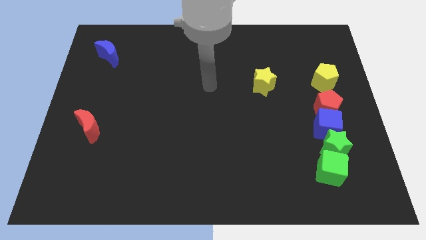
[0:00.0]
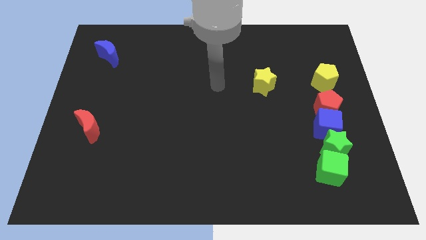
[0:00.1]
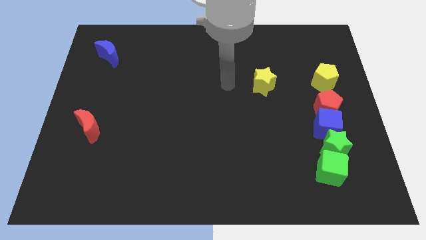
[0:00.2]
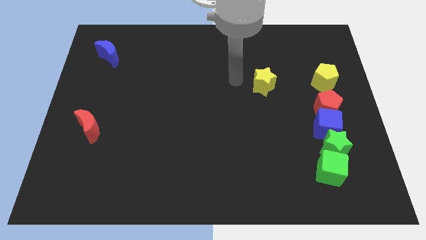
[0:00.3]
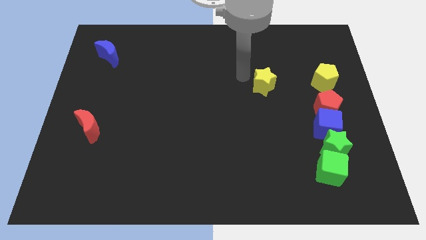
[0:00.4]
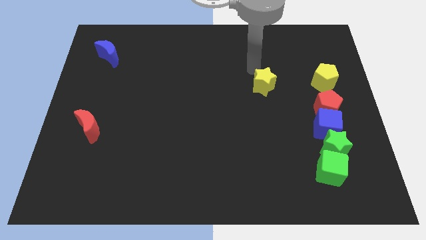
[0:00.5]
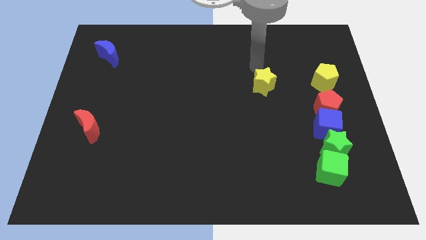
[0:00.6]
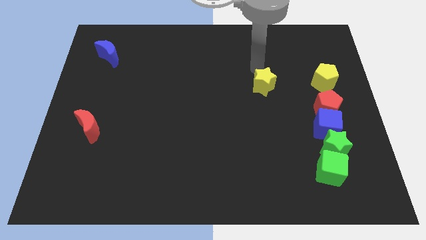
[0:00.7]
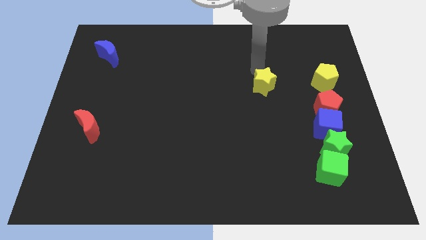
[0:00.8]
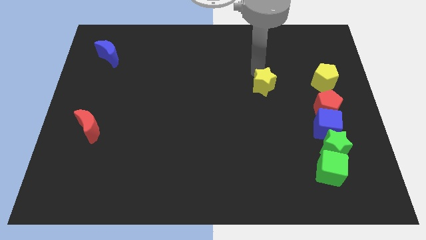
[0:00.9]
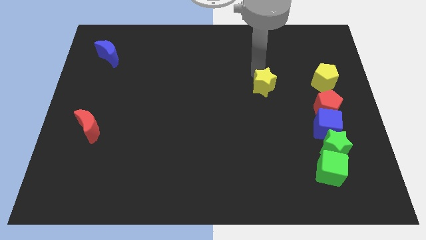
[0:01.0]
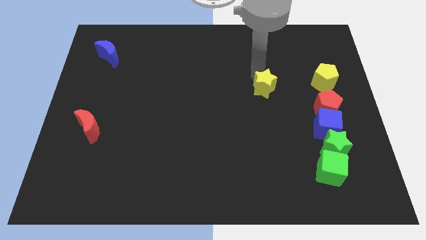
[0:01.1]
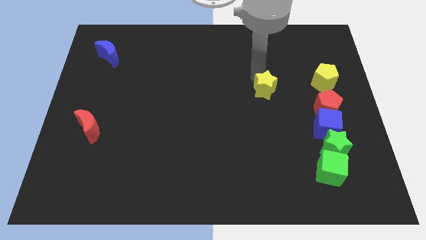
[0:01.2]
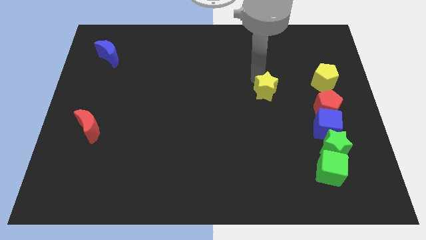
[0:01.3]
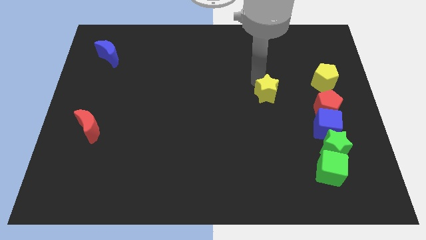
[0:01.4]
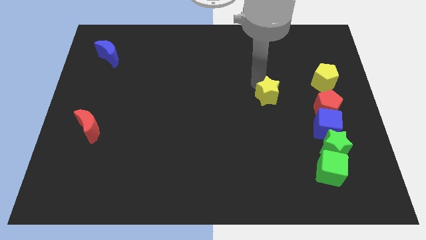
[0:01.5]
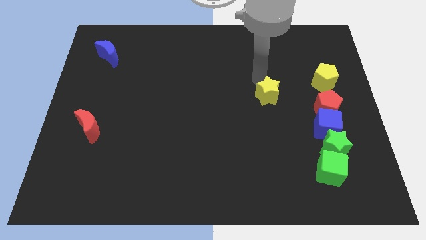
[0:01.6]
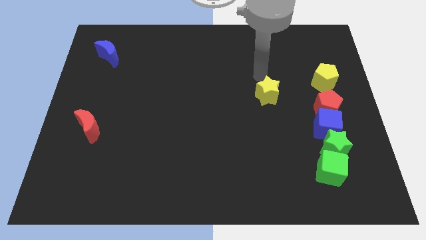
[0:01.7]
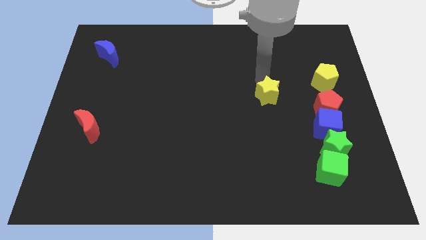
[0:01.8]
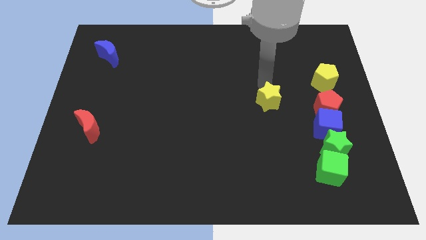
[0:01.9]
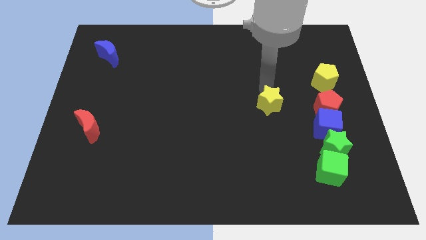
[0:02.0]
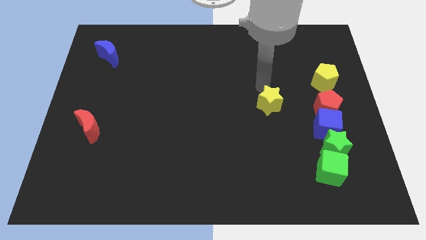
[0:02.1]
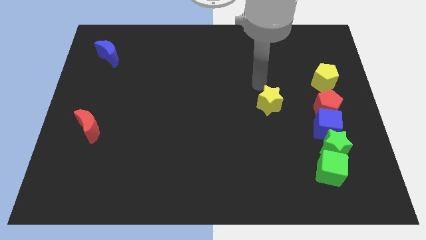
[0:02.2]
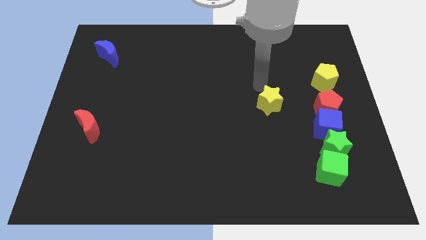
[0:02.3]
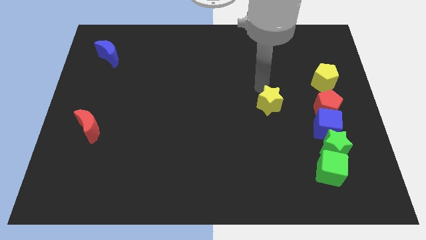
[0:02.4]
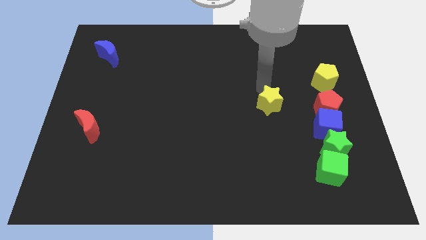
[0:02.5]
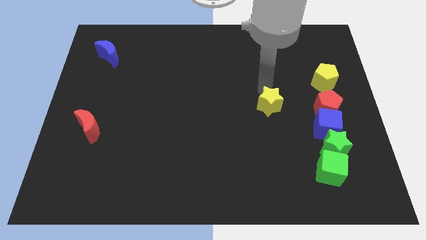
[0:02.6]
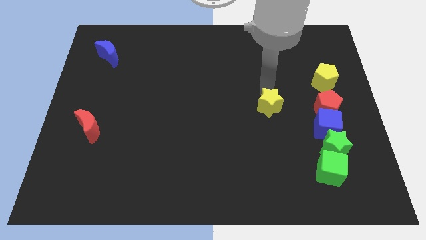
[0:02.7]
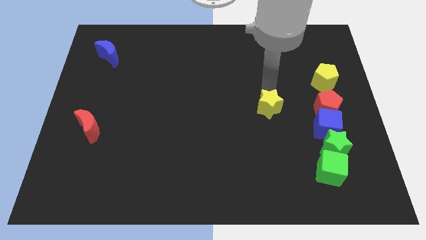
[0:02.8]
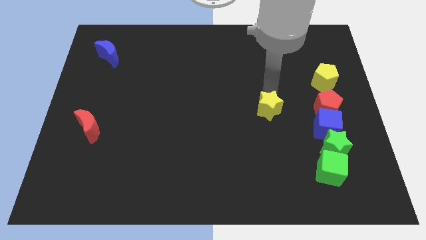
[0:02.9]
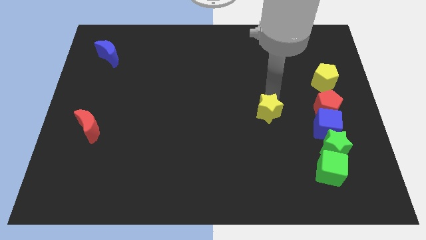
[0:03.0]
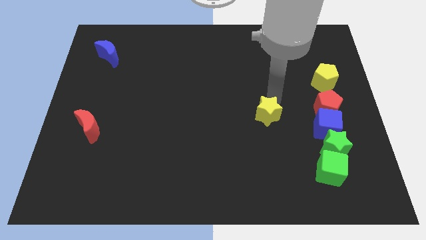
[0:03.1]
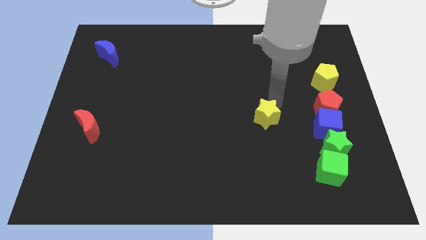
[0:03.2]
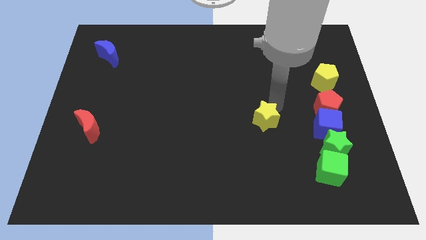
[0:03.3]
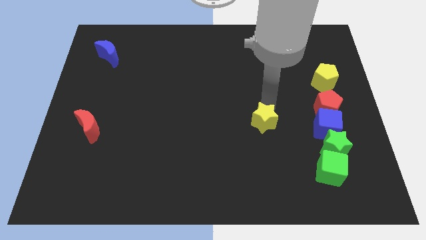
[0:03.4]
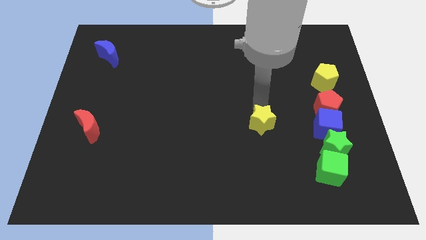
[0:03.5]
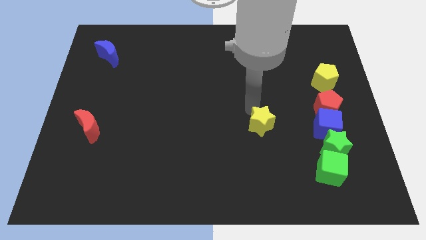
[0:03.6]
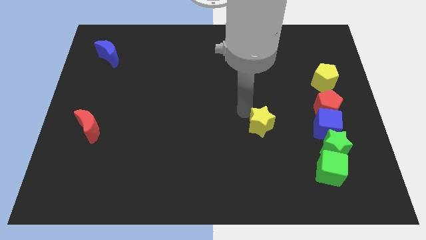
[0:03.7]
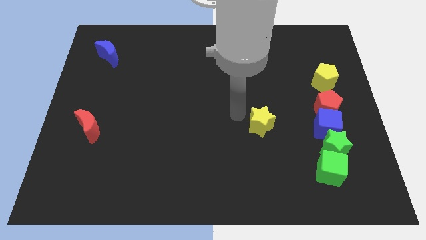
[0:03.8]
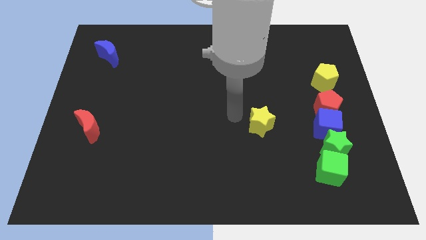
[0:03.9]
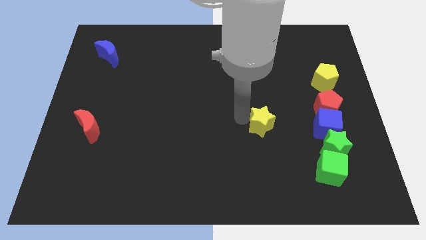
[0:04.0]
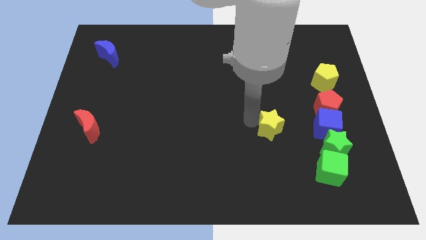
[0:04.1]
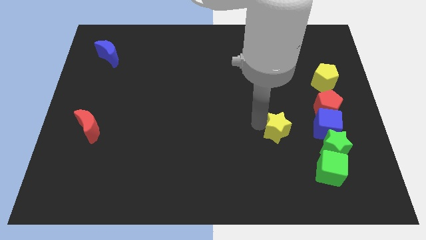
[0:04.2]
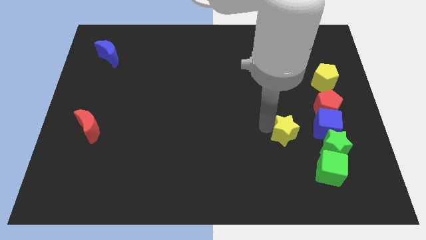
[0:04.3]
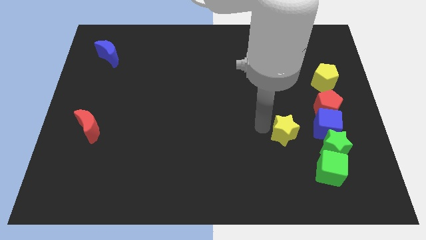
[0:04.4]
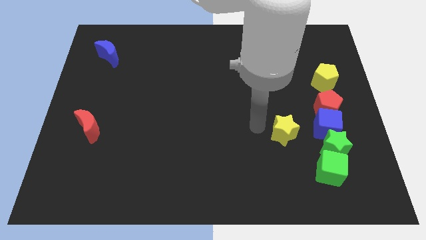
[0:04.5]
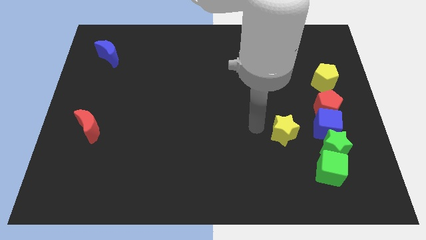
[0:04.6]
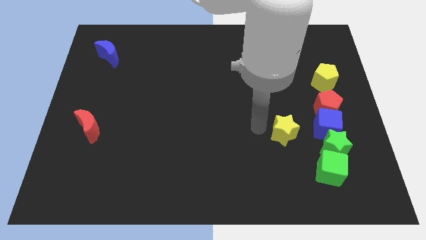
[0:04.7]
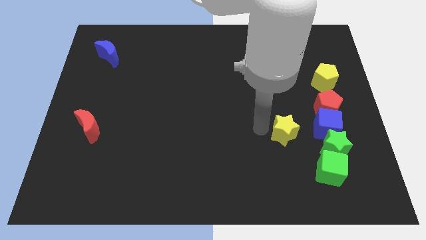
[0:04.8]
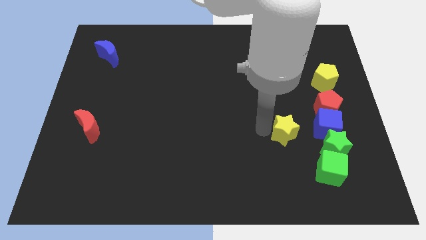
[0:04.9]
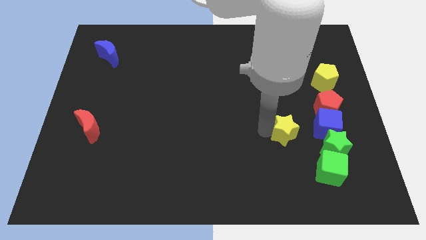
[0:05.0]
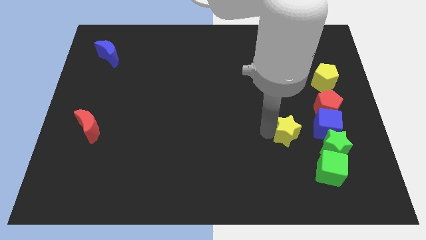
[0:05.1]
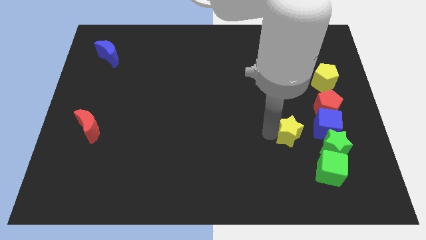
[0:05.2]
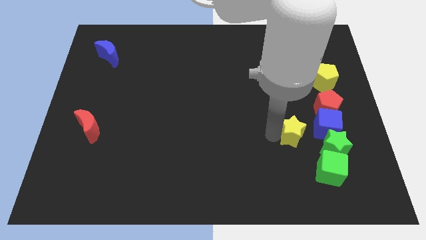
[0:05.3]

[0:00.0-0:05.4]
put the yellow star to the bottom left side of the blue cube

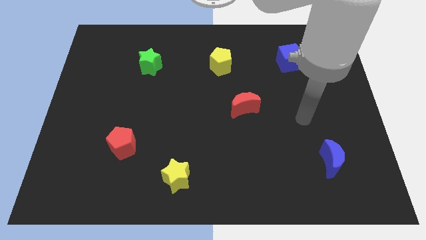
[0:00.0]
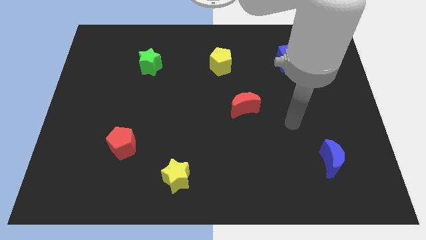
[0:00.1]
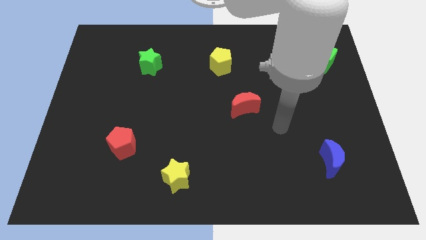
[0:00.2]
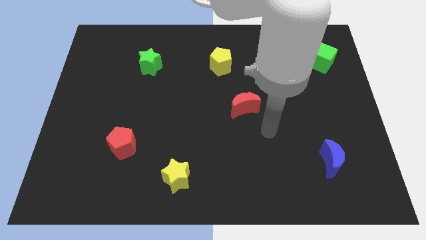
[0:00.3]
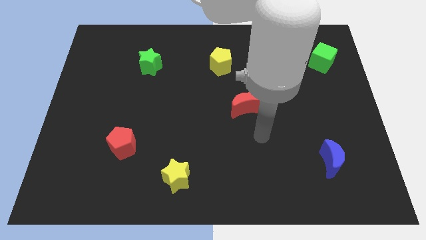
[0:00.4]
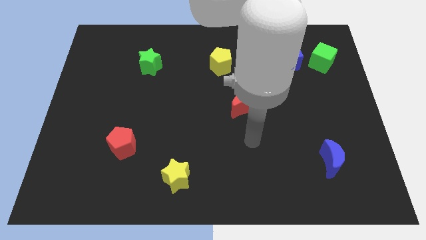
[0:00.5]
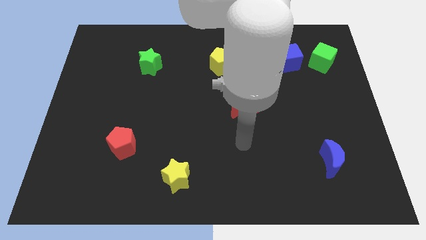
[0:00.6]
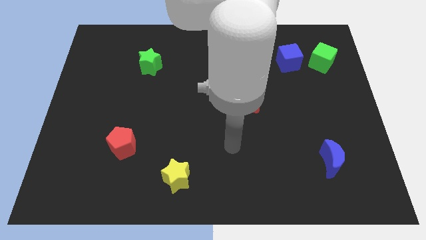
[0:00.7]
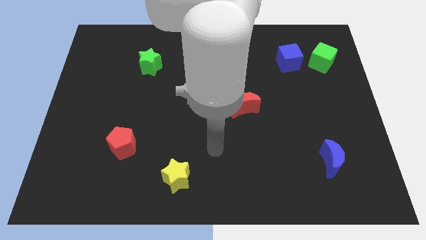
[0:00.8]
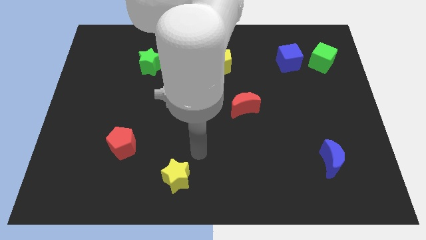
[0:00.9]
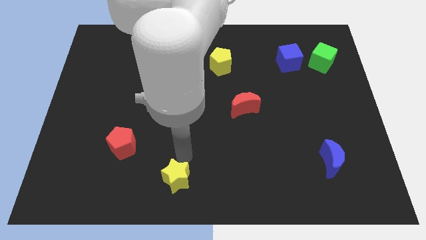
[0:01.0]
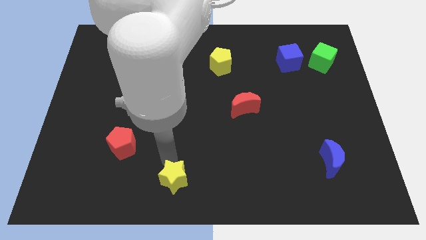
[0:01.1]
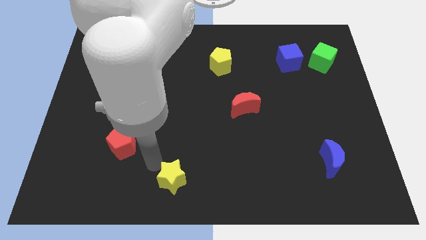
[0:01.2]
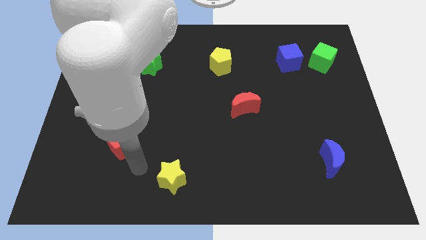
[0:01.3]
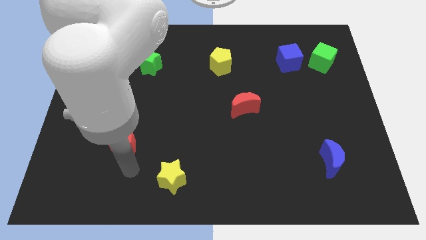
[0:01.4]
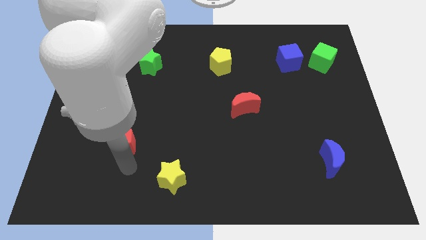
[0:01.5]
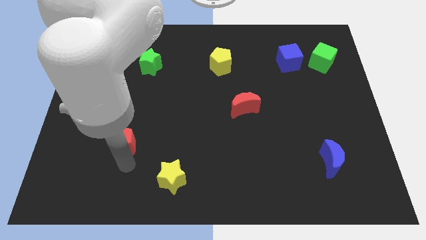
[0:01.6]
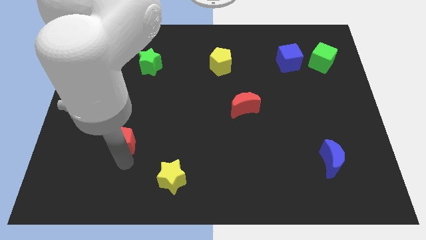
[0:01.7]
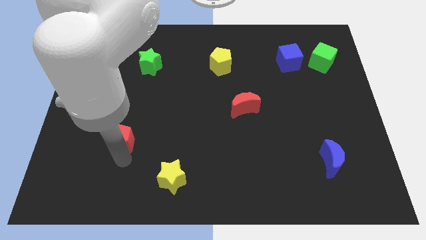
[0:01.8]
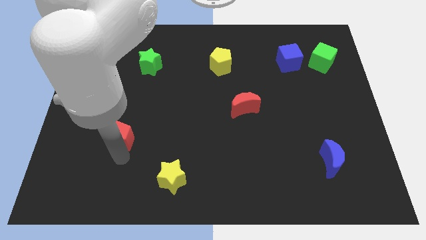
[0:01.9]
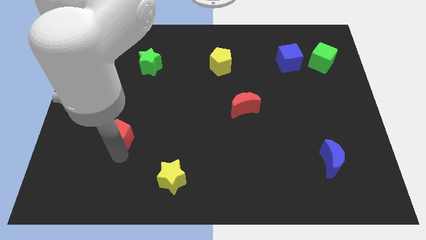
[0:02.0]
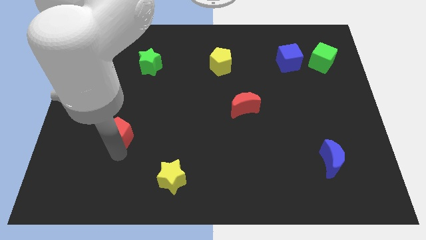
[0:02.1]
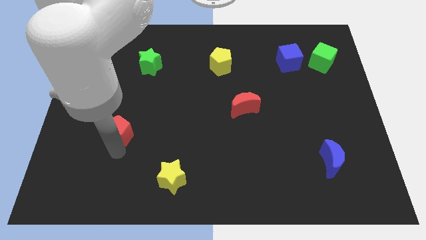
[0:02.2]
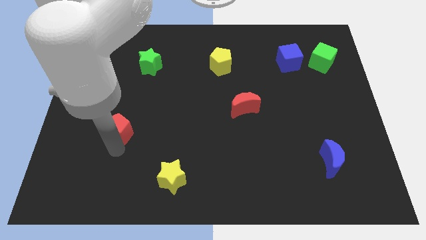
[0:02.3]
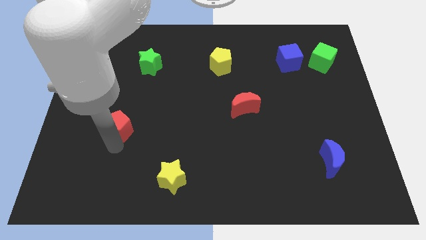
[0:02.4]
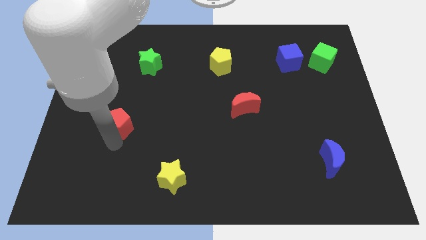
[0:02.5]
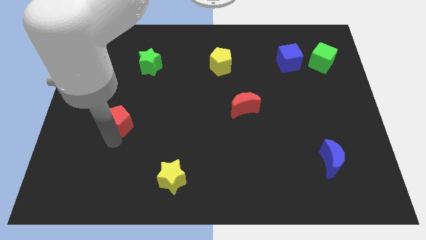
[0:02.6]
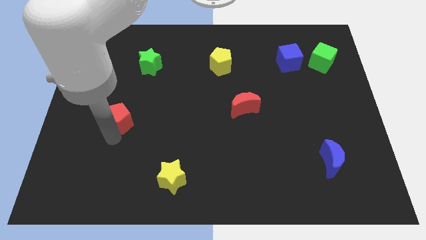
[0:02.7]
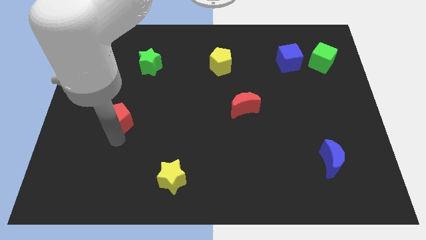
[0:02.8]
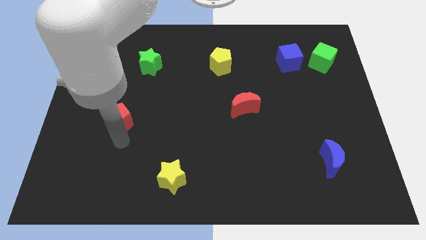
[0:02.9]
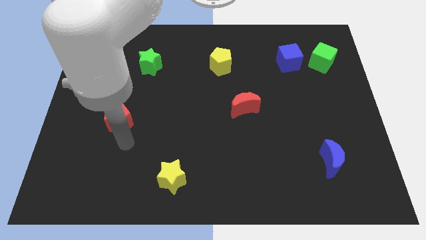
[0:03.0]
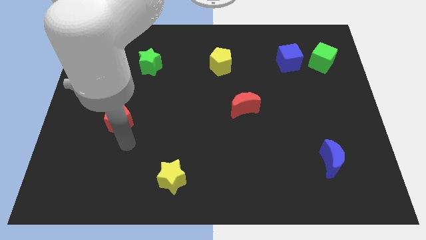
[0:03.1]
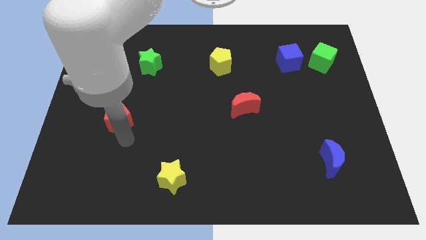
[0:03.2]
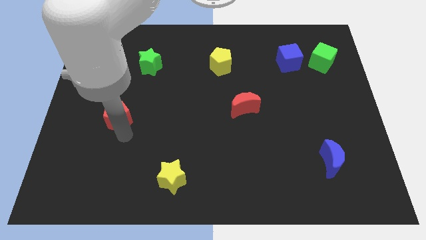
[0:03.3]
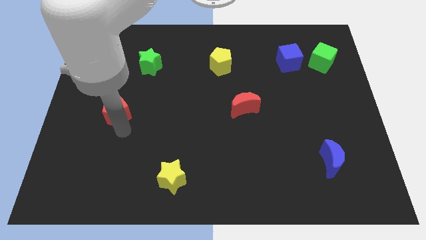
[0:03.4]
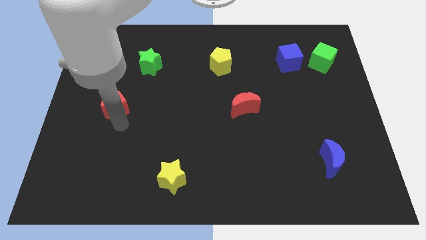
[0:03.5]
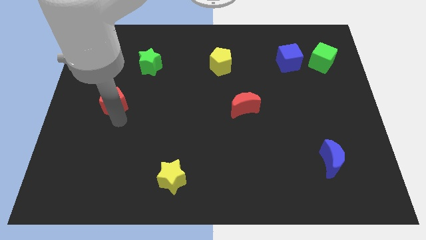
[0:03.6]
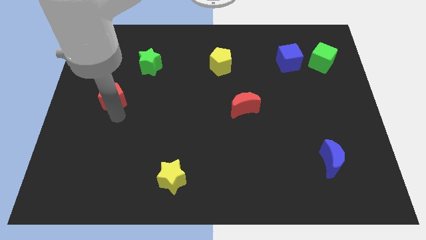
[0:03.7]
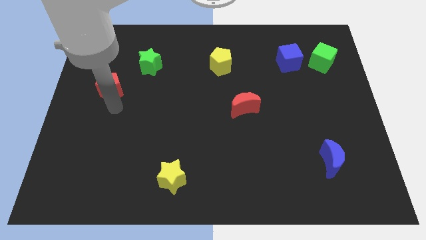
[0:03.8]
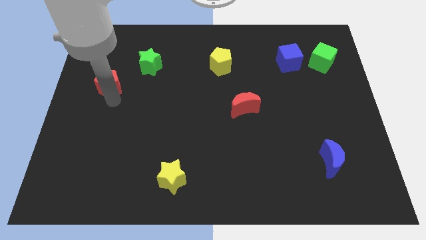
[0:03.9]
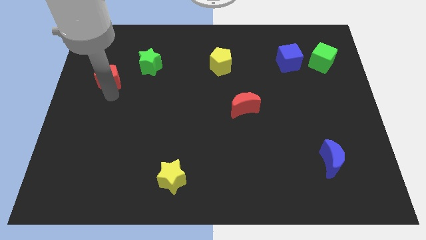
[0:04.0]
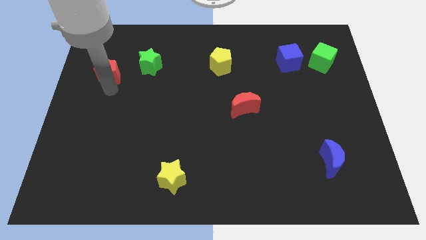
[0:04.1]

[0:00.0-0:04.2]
slide the red pentagon to the left side of the green star
